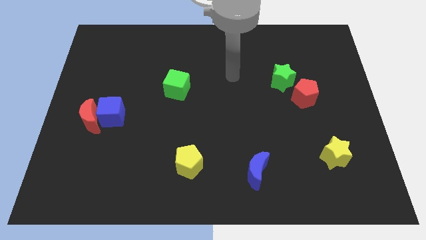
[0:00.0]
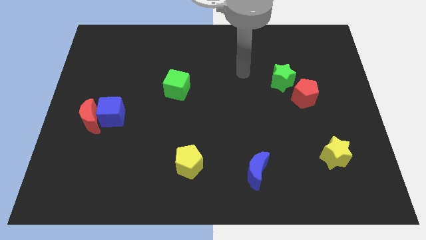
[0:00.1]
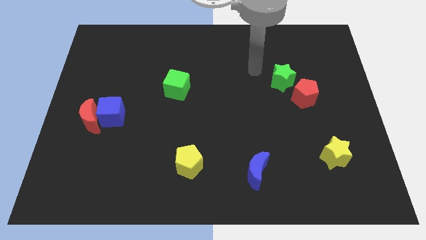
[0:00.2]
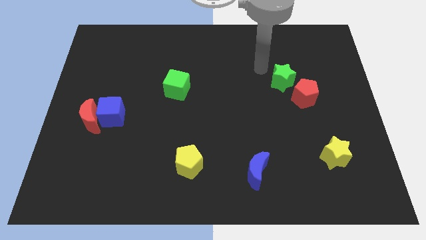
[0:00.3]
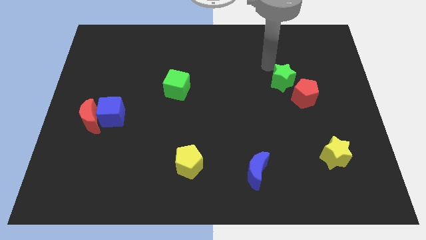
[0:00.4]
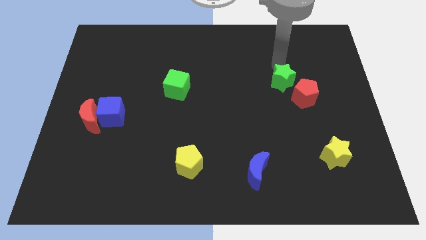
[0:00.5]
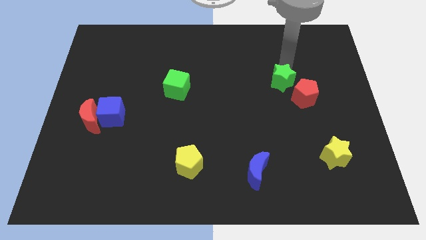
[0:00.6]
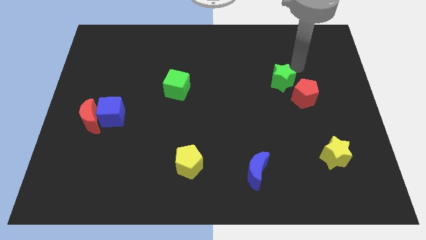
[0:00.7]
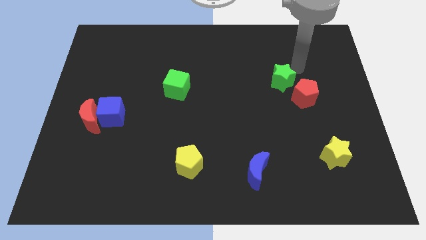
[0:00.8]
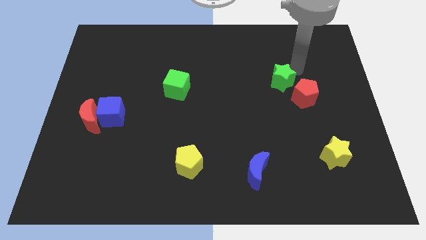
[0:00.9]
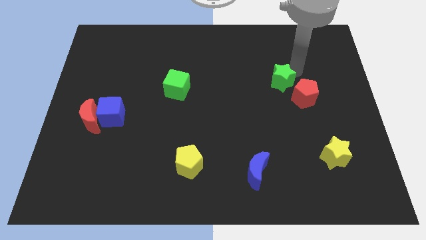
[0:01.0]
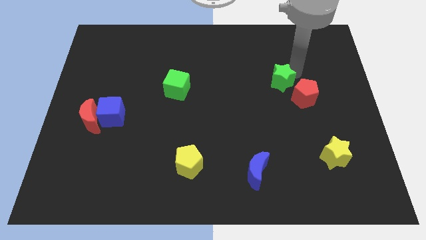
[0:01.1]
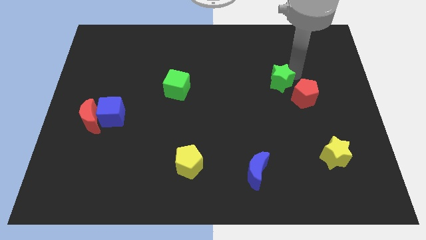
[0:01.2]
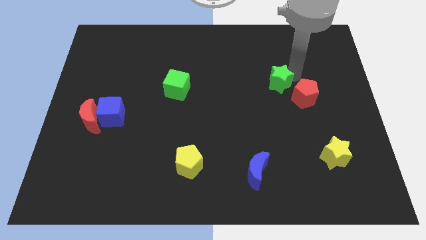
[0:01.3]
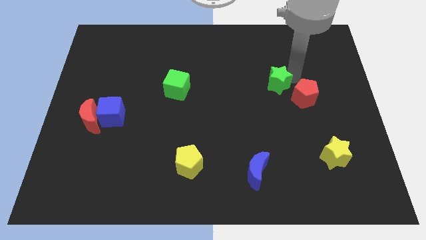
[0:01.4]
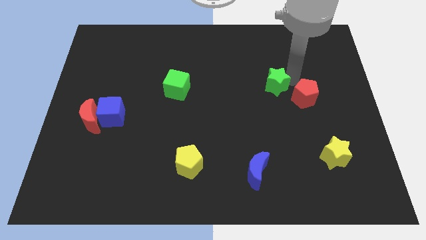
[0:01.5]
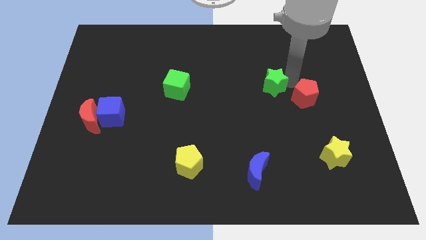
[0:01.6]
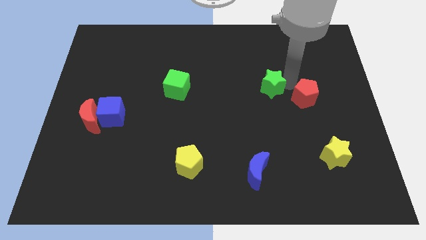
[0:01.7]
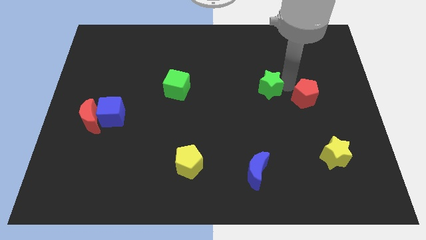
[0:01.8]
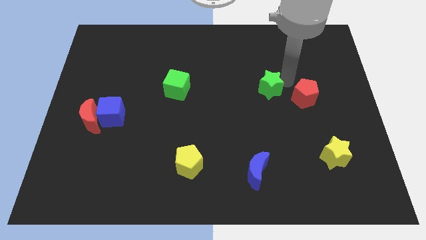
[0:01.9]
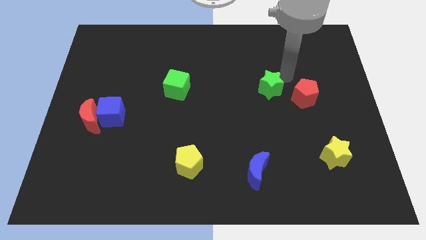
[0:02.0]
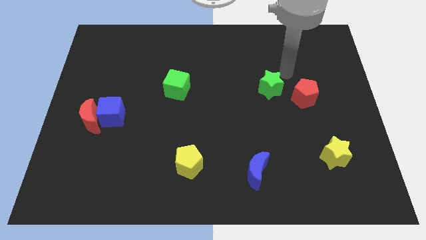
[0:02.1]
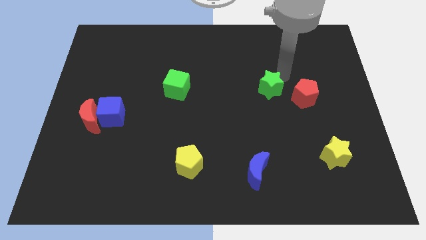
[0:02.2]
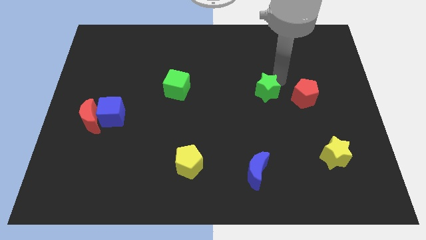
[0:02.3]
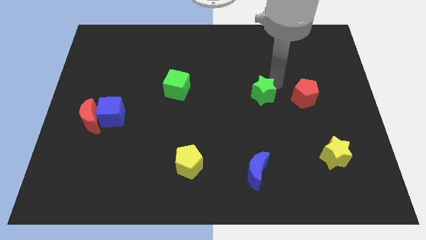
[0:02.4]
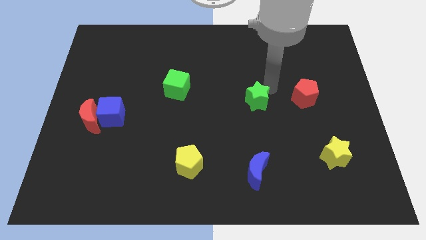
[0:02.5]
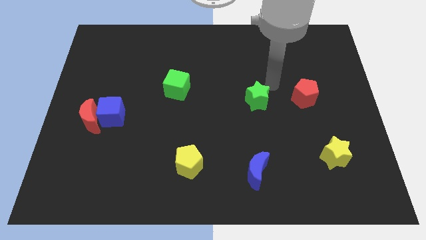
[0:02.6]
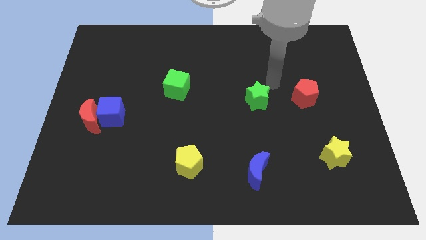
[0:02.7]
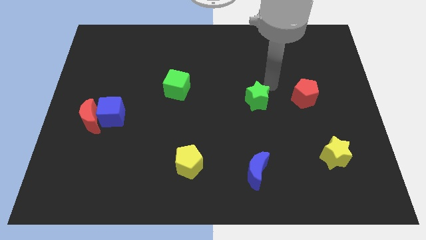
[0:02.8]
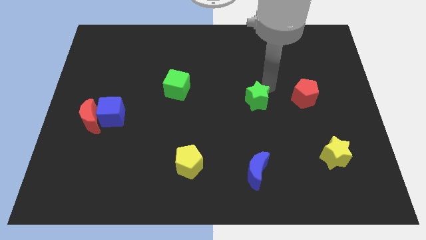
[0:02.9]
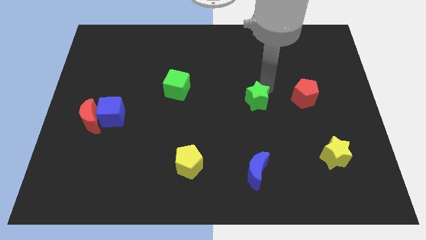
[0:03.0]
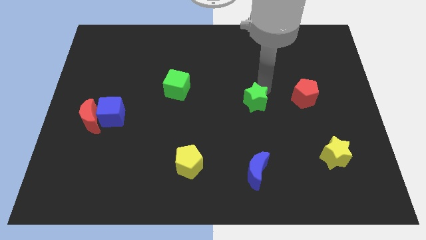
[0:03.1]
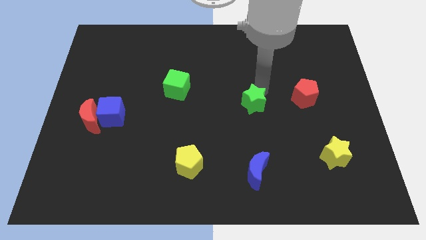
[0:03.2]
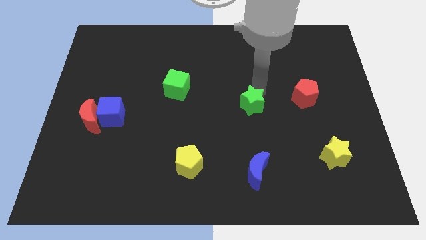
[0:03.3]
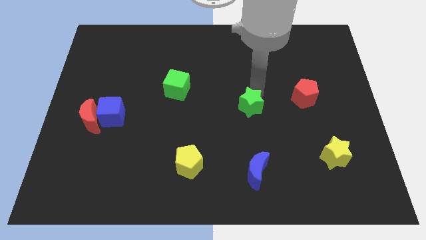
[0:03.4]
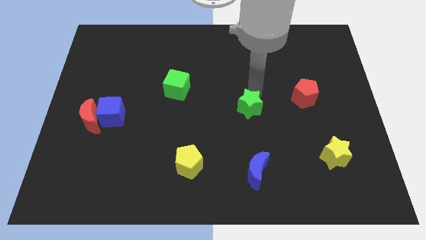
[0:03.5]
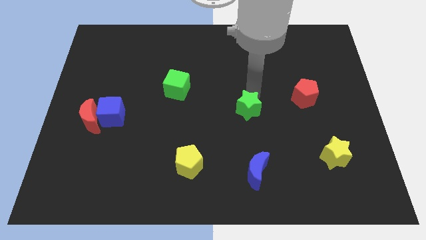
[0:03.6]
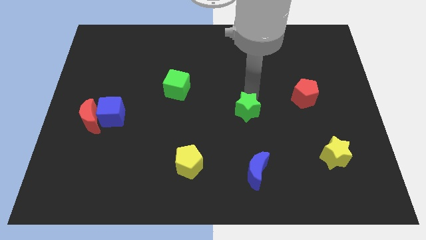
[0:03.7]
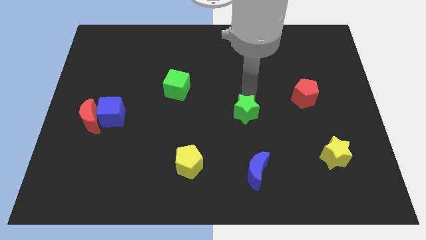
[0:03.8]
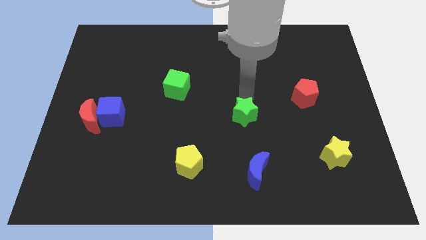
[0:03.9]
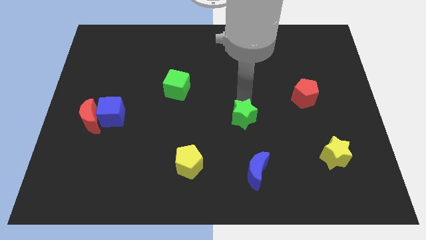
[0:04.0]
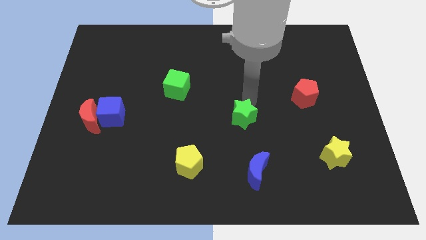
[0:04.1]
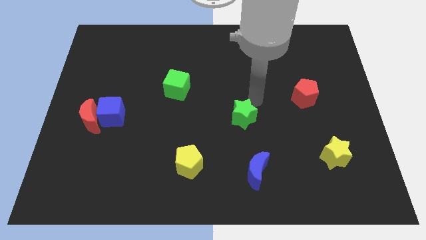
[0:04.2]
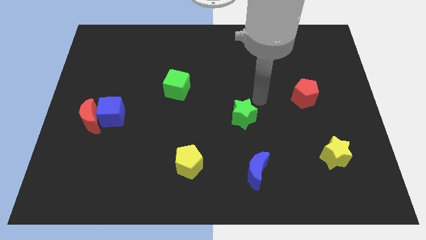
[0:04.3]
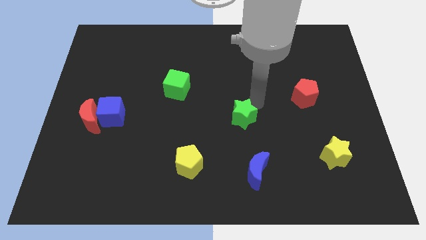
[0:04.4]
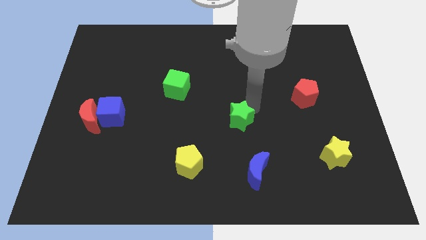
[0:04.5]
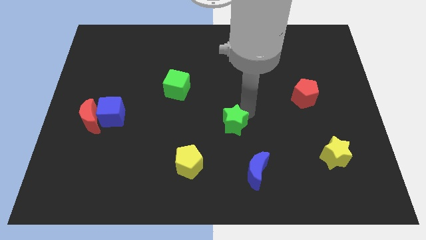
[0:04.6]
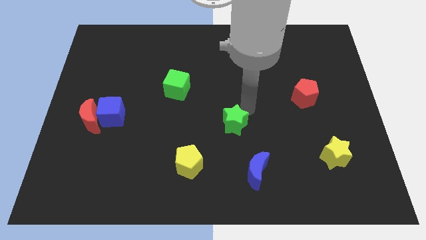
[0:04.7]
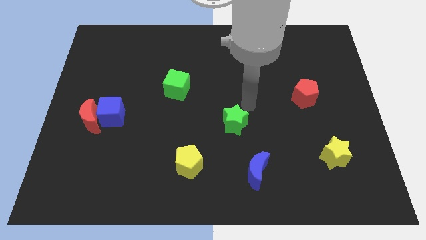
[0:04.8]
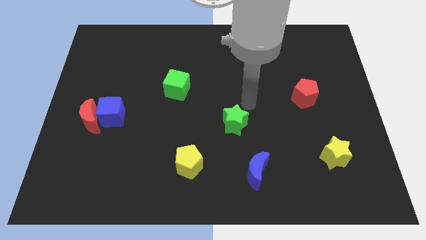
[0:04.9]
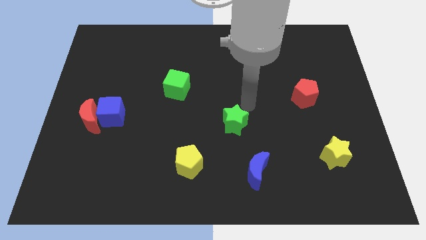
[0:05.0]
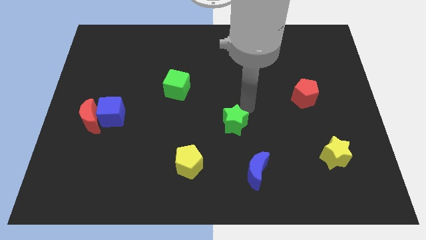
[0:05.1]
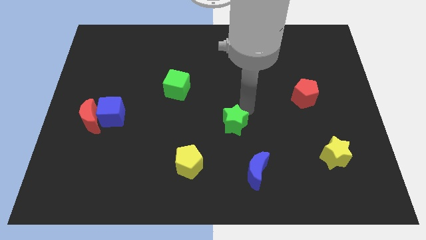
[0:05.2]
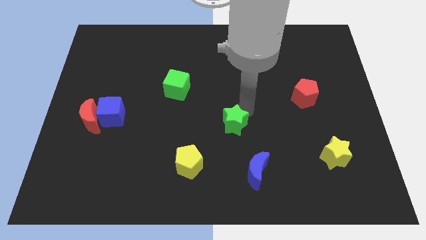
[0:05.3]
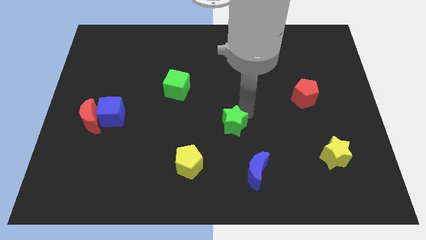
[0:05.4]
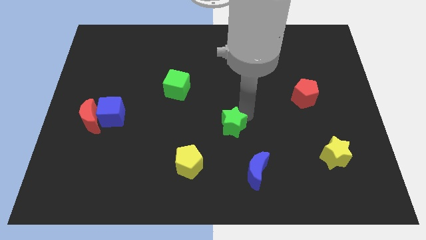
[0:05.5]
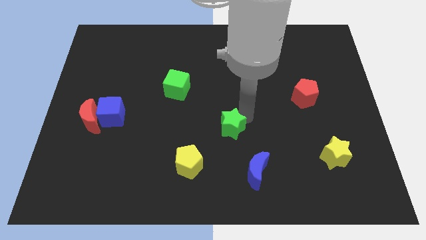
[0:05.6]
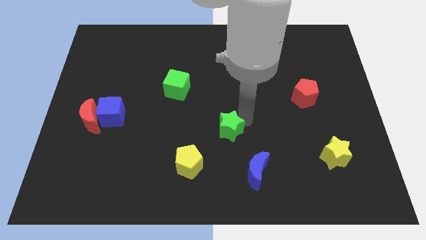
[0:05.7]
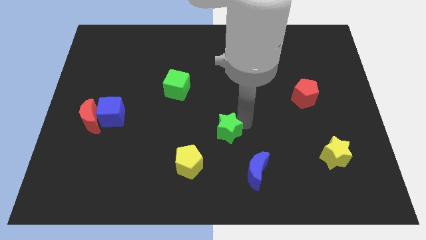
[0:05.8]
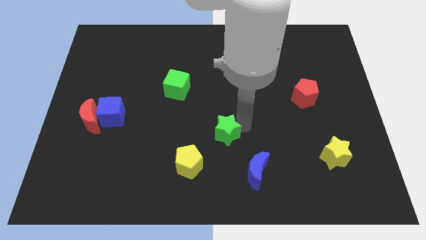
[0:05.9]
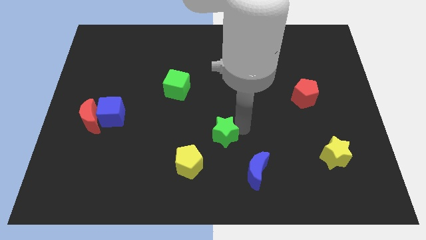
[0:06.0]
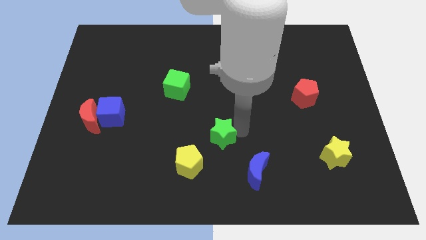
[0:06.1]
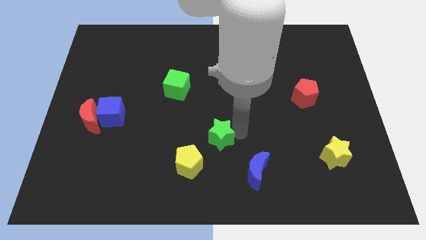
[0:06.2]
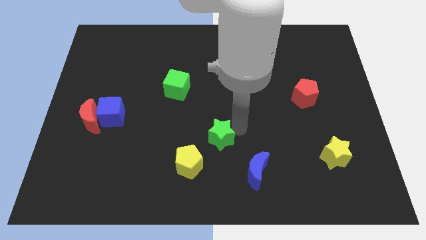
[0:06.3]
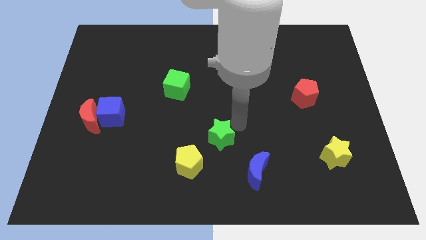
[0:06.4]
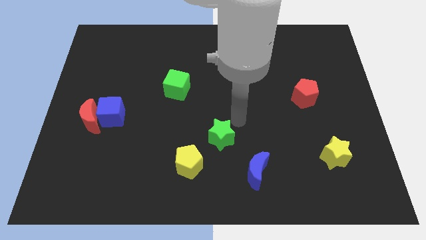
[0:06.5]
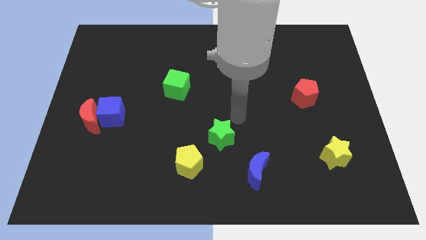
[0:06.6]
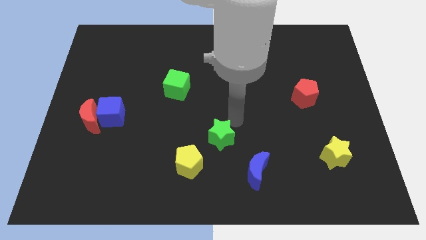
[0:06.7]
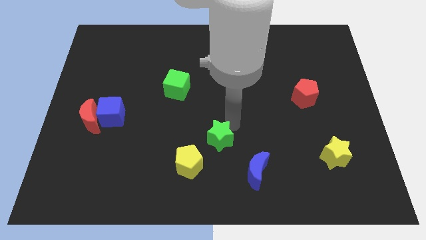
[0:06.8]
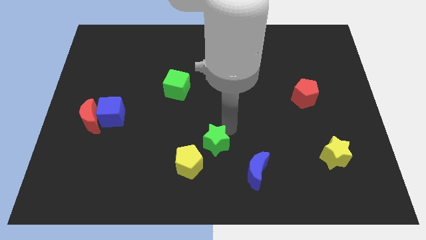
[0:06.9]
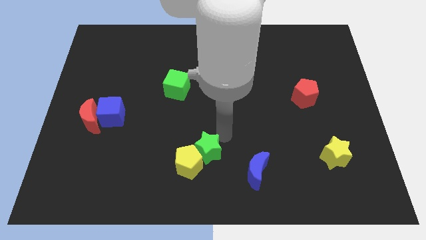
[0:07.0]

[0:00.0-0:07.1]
move the green star close to the yellow pentagon

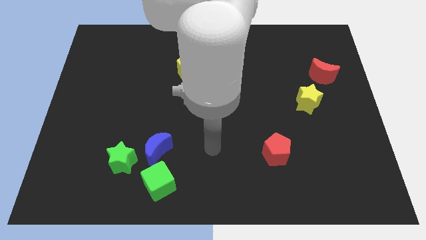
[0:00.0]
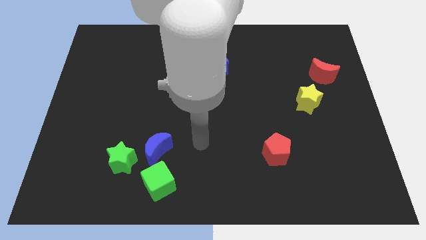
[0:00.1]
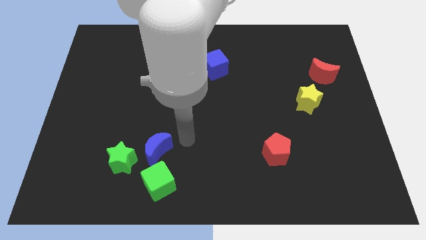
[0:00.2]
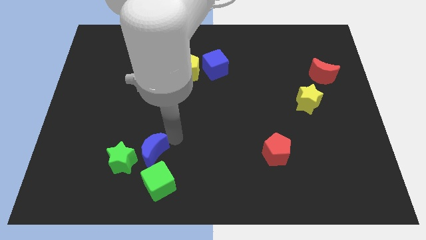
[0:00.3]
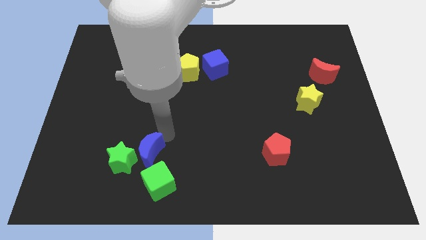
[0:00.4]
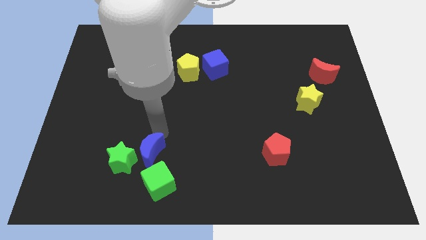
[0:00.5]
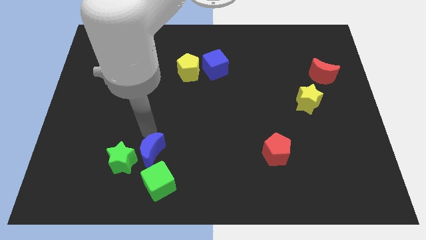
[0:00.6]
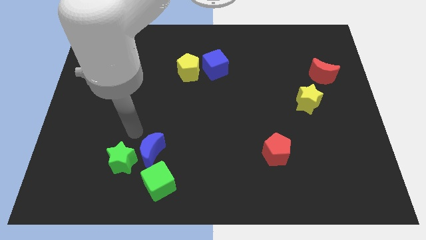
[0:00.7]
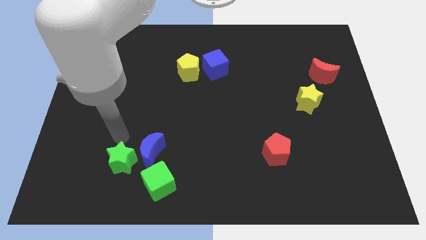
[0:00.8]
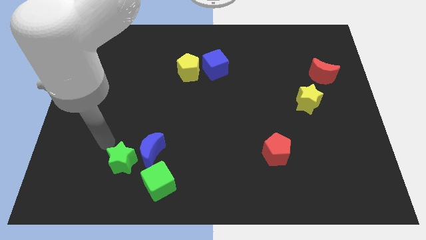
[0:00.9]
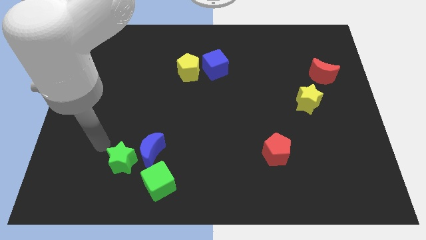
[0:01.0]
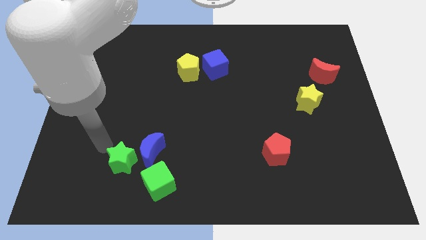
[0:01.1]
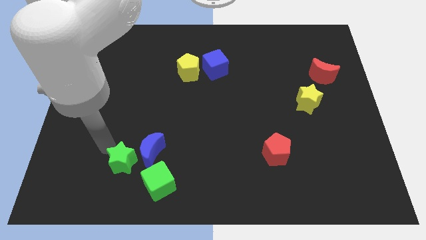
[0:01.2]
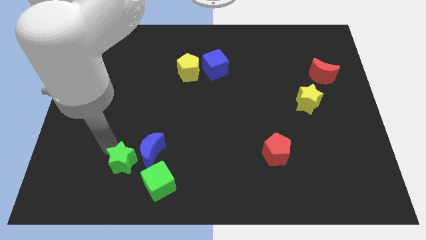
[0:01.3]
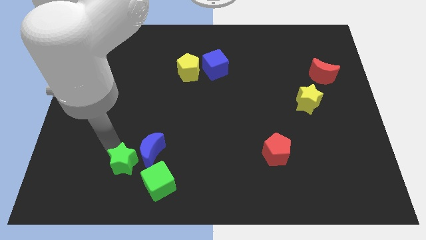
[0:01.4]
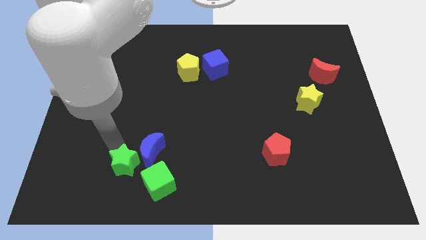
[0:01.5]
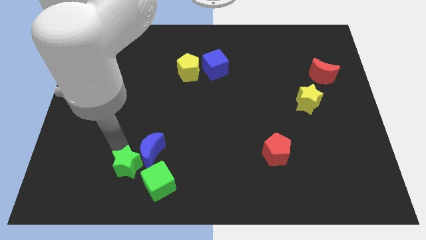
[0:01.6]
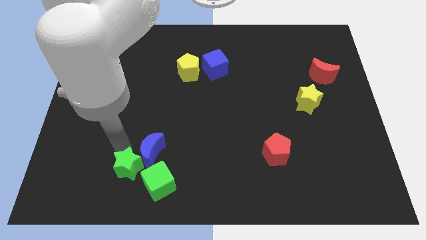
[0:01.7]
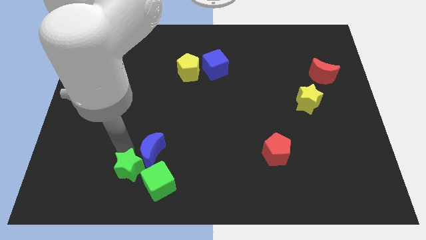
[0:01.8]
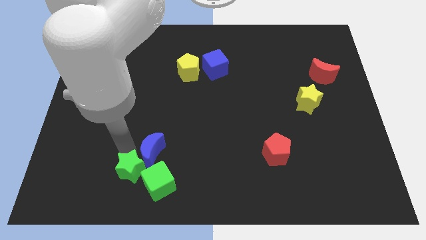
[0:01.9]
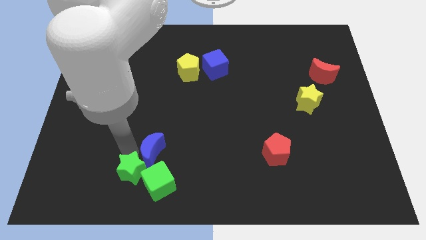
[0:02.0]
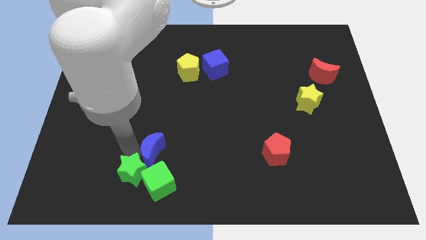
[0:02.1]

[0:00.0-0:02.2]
put the green star close to the green cube
